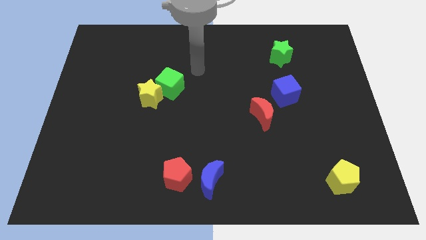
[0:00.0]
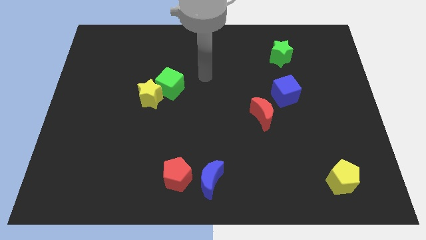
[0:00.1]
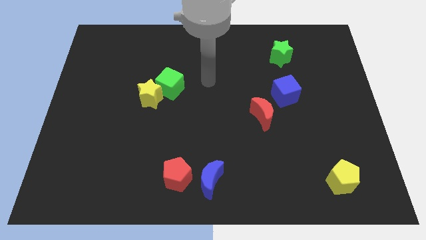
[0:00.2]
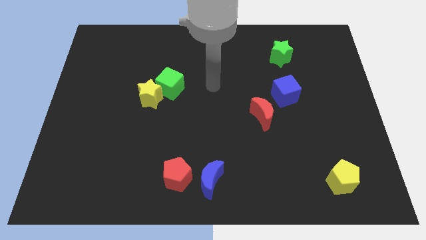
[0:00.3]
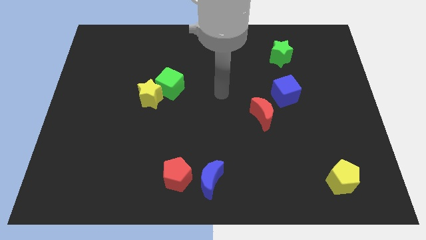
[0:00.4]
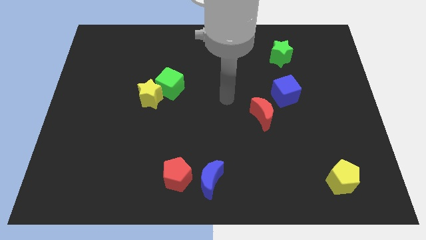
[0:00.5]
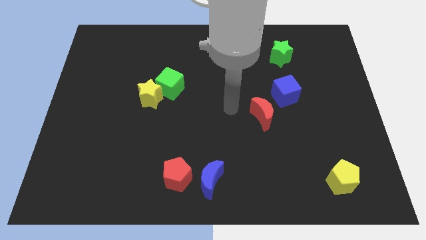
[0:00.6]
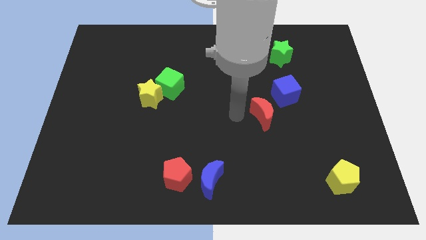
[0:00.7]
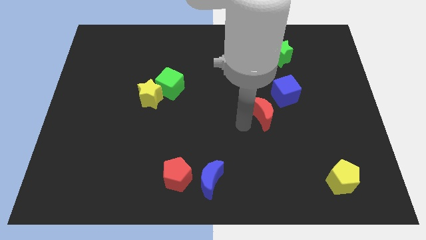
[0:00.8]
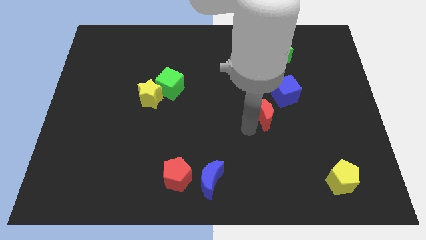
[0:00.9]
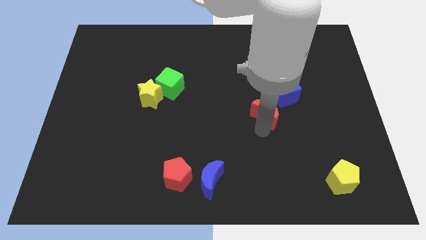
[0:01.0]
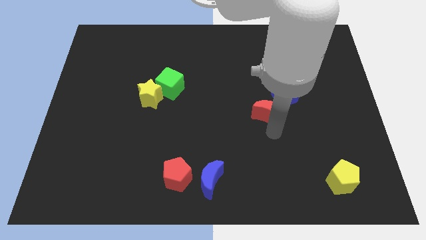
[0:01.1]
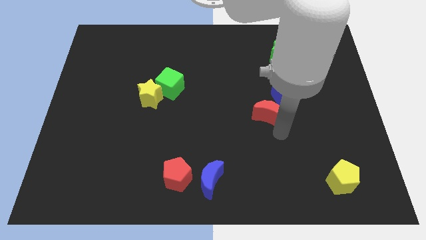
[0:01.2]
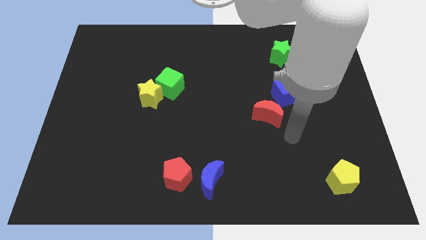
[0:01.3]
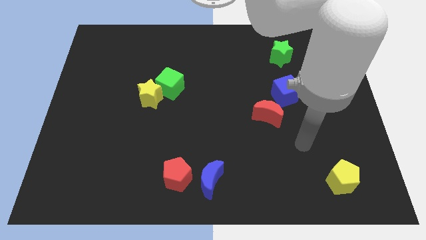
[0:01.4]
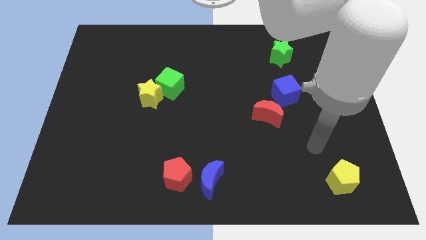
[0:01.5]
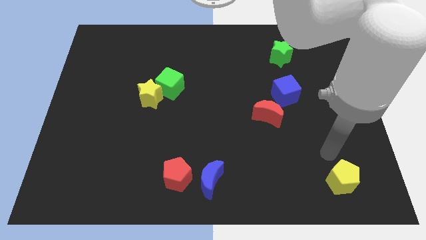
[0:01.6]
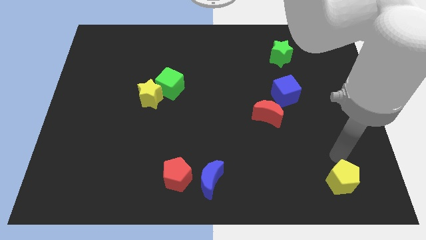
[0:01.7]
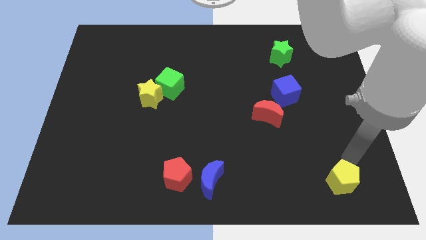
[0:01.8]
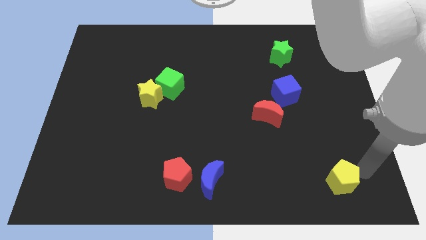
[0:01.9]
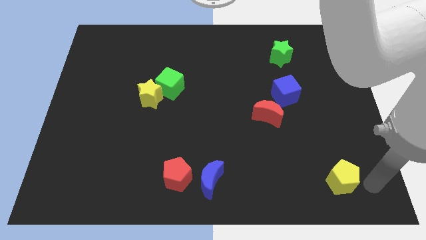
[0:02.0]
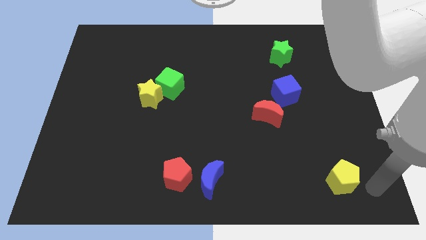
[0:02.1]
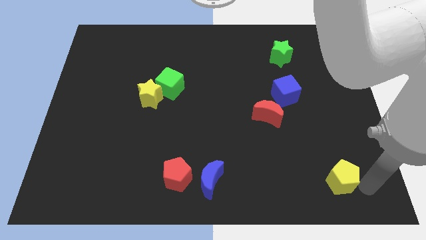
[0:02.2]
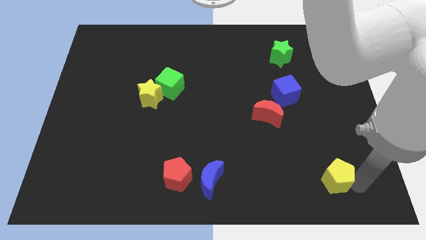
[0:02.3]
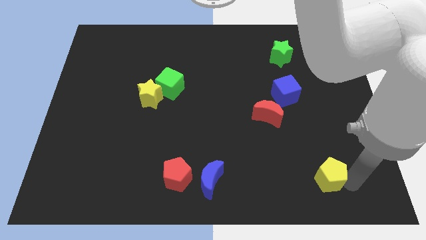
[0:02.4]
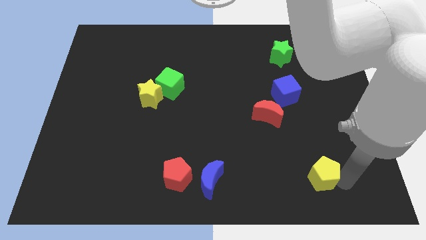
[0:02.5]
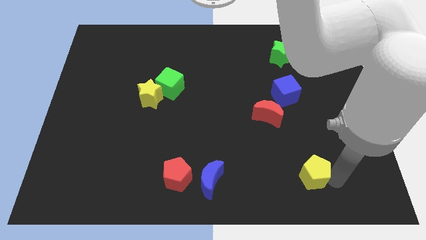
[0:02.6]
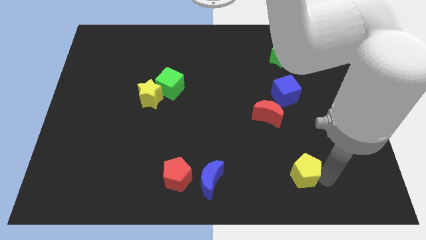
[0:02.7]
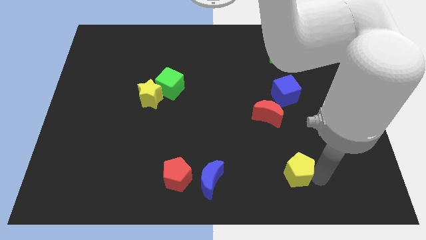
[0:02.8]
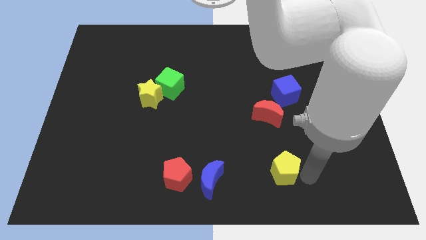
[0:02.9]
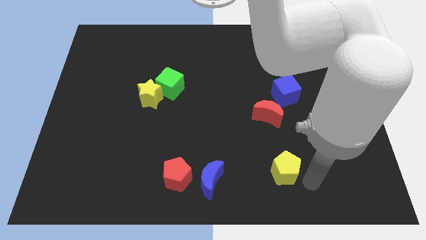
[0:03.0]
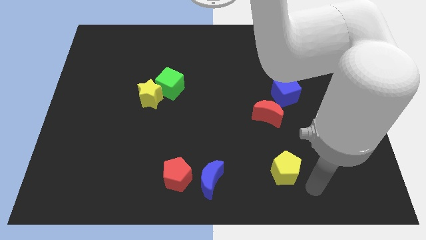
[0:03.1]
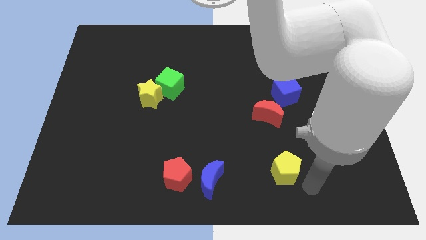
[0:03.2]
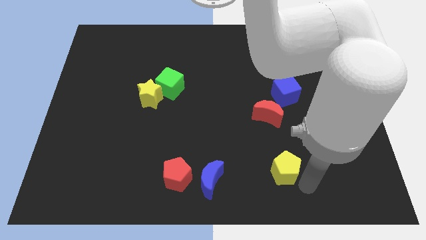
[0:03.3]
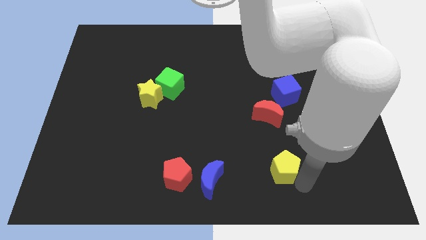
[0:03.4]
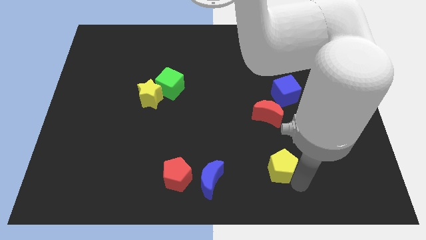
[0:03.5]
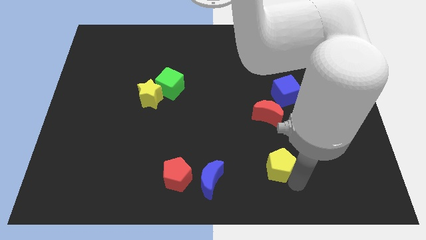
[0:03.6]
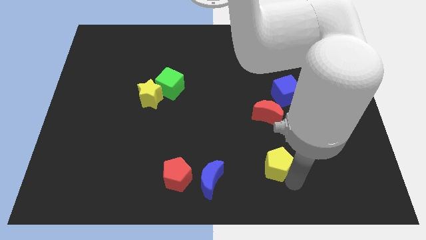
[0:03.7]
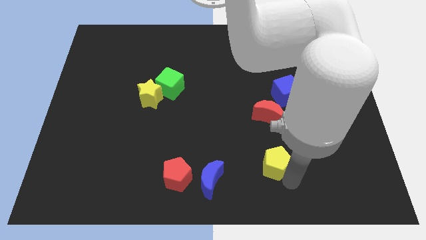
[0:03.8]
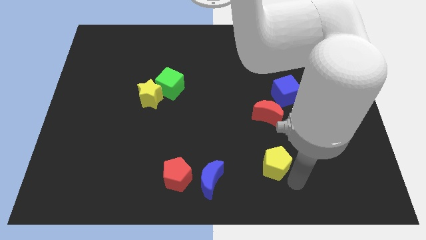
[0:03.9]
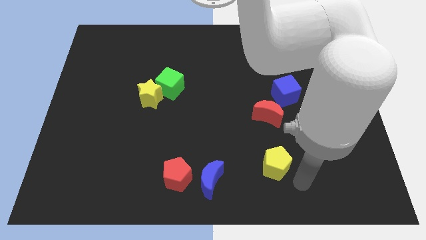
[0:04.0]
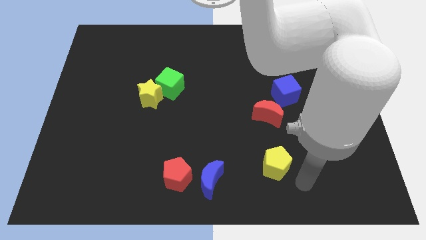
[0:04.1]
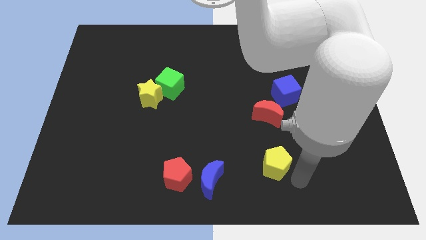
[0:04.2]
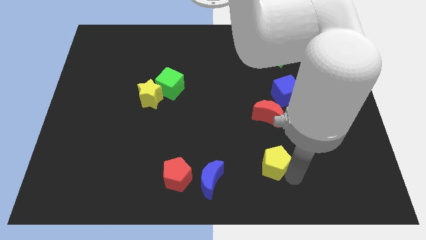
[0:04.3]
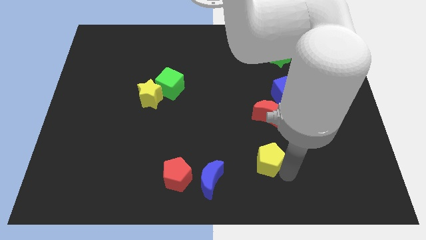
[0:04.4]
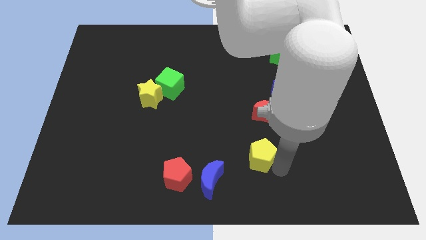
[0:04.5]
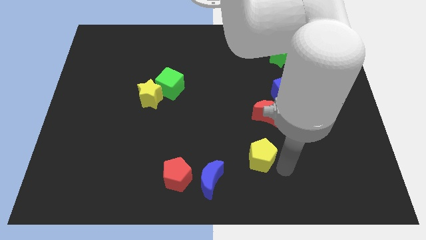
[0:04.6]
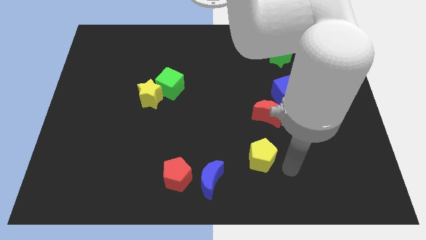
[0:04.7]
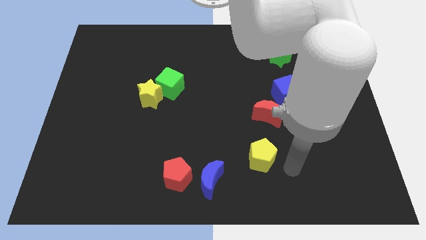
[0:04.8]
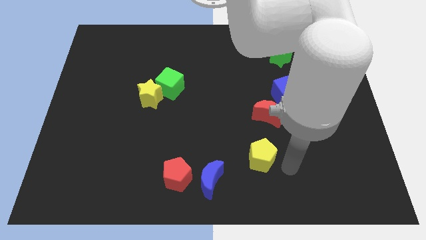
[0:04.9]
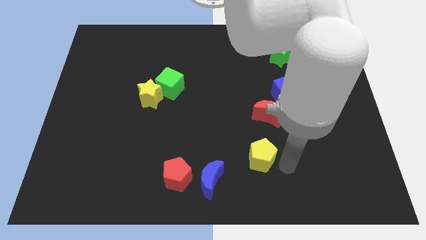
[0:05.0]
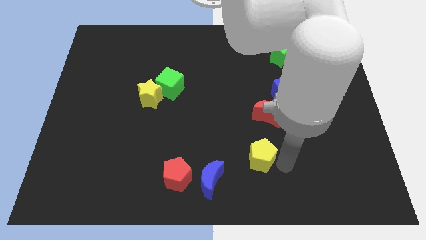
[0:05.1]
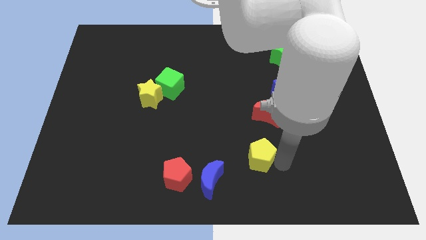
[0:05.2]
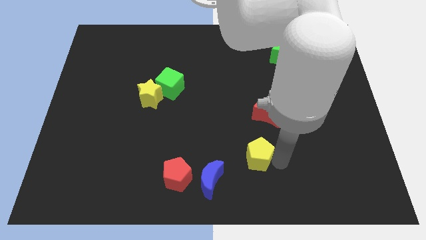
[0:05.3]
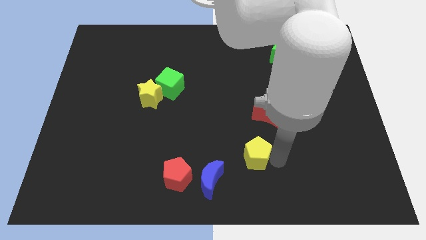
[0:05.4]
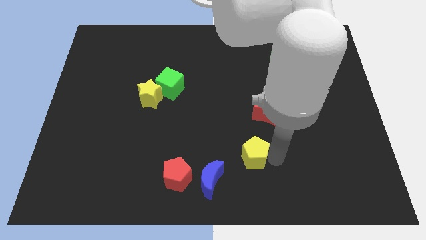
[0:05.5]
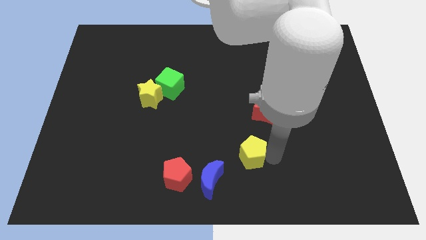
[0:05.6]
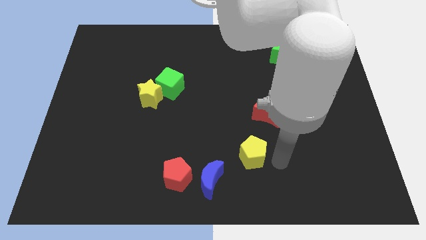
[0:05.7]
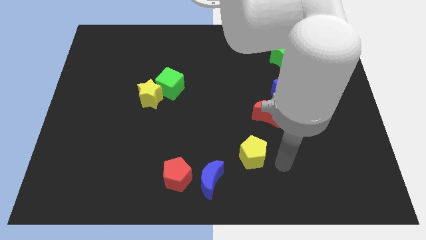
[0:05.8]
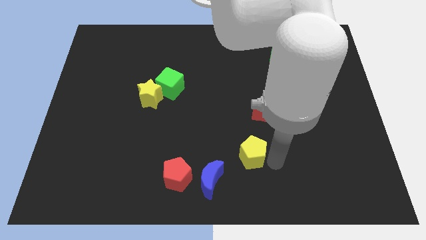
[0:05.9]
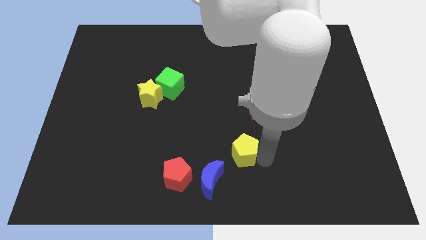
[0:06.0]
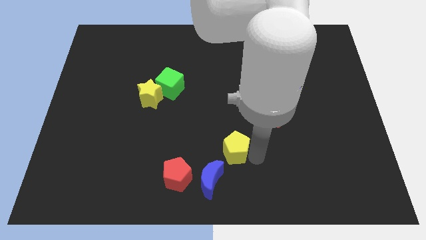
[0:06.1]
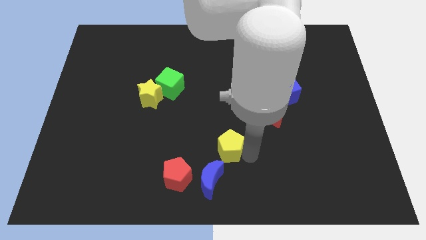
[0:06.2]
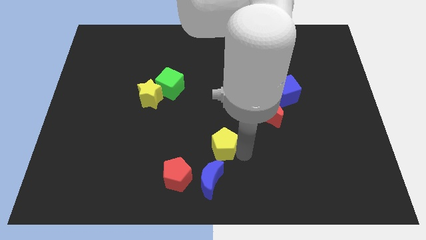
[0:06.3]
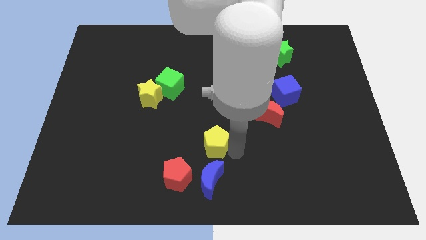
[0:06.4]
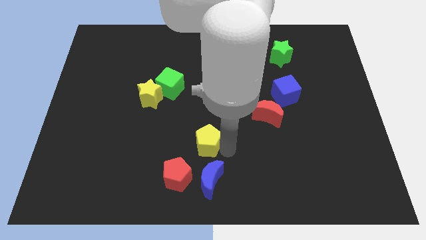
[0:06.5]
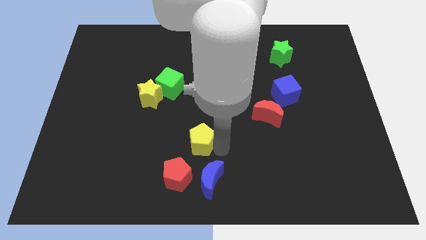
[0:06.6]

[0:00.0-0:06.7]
put the yellow pentagon above the red pentagon

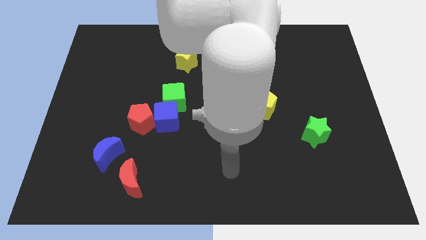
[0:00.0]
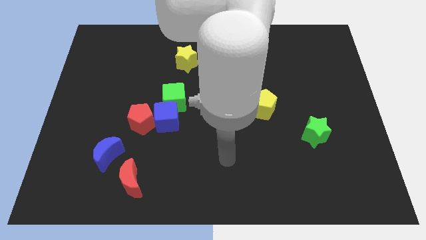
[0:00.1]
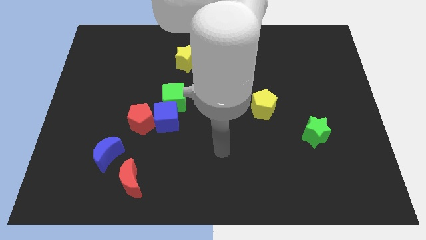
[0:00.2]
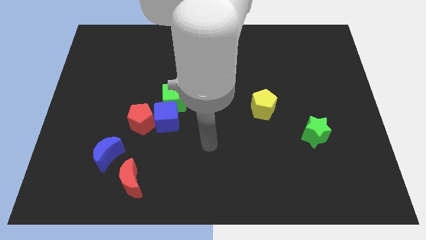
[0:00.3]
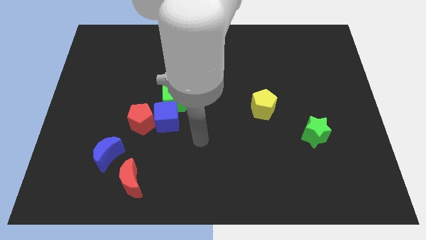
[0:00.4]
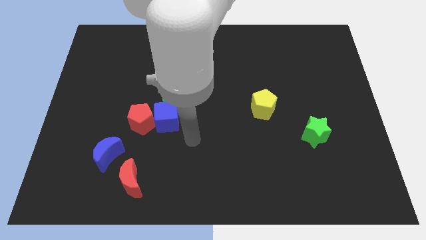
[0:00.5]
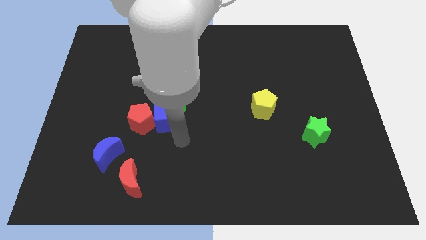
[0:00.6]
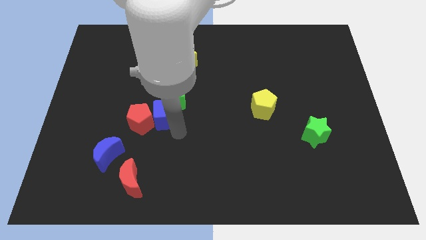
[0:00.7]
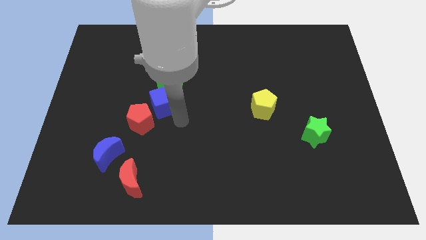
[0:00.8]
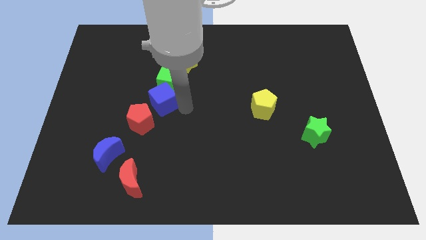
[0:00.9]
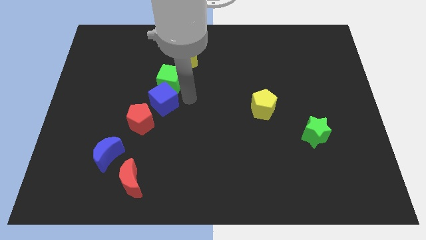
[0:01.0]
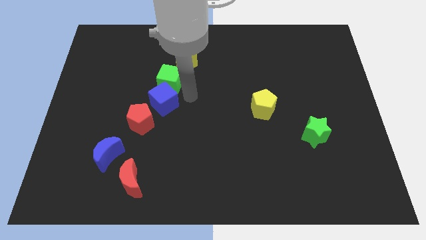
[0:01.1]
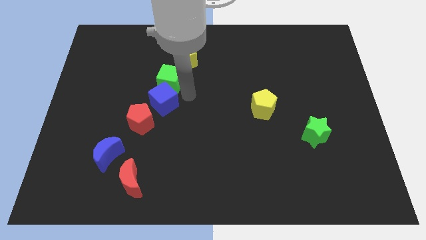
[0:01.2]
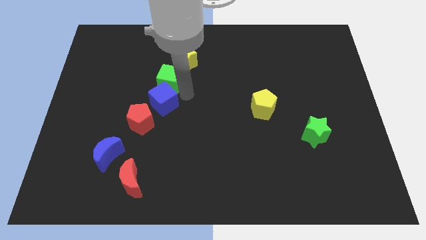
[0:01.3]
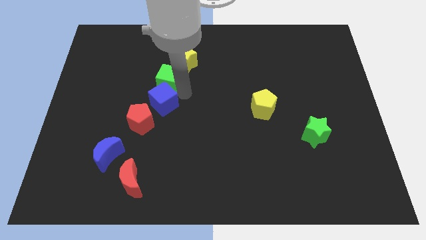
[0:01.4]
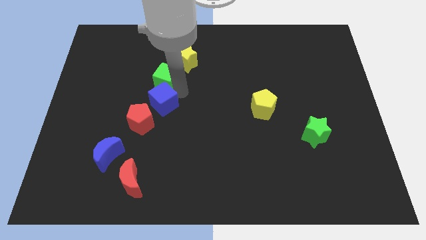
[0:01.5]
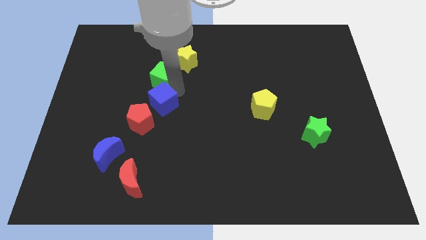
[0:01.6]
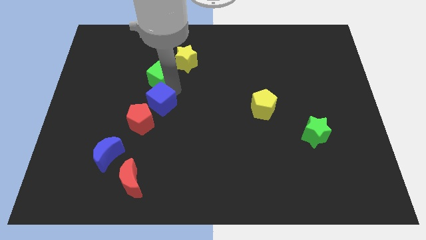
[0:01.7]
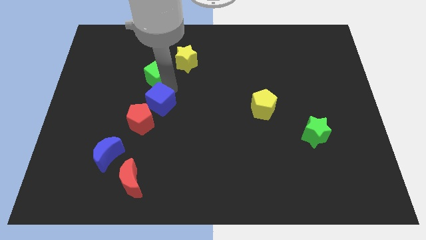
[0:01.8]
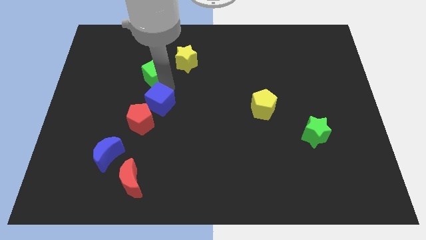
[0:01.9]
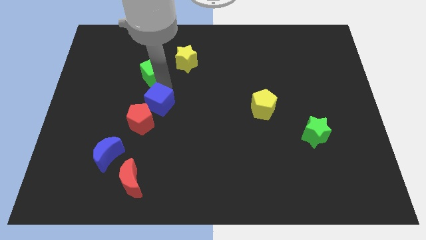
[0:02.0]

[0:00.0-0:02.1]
put the green cube left of the yellow star
